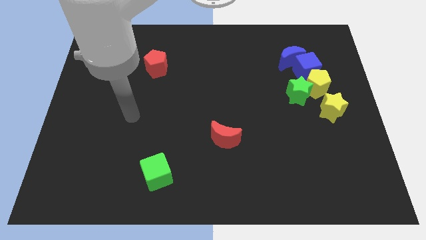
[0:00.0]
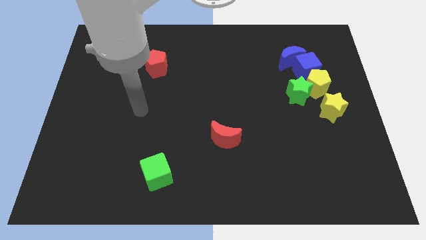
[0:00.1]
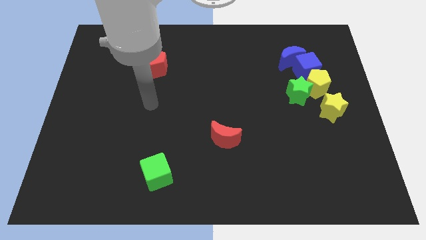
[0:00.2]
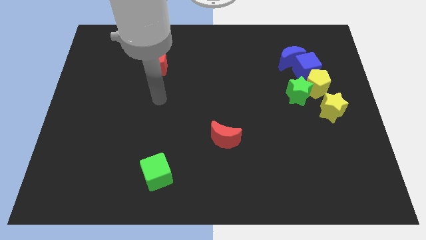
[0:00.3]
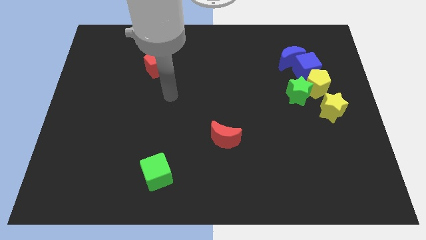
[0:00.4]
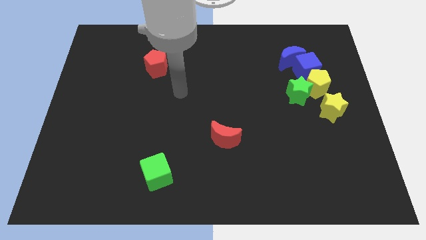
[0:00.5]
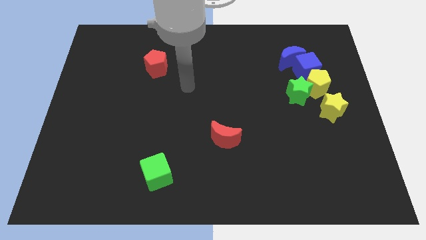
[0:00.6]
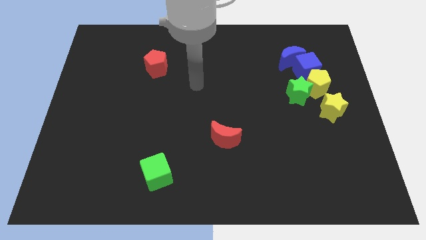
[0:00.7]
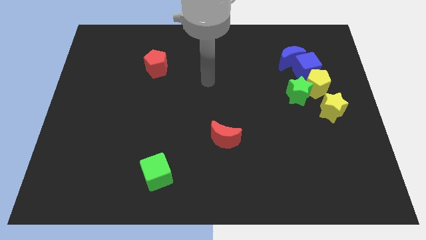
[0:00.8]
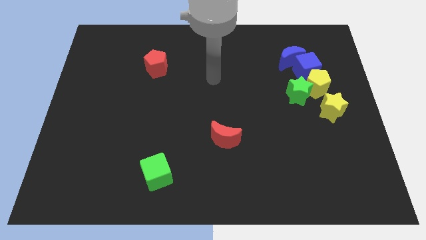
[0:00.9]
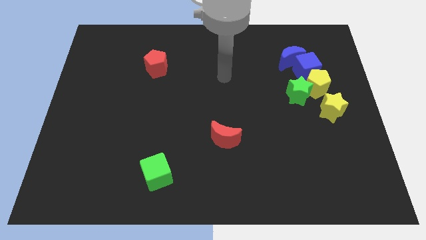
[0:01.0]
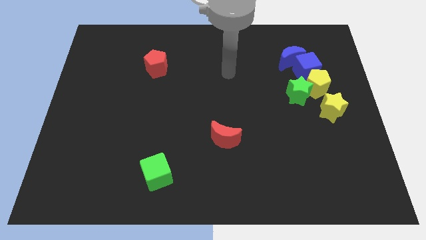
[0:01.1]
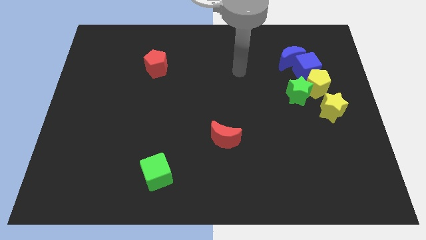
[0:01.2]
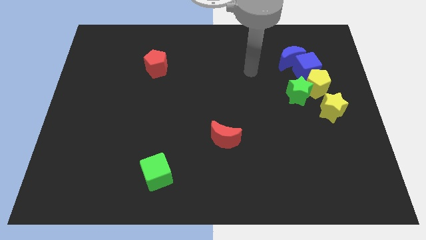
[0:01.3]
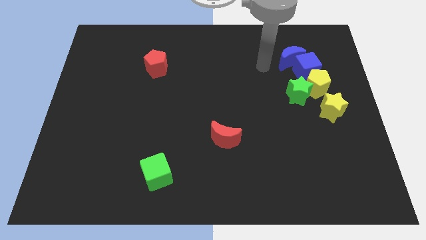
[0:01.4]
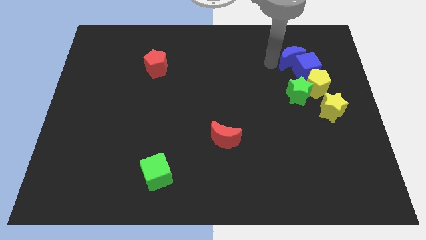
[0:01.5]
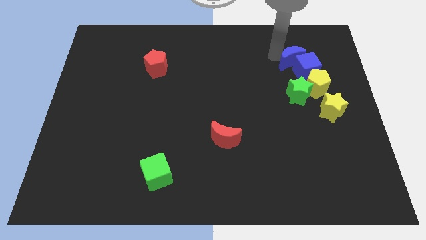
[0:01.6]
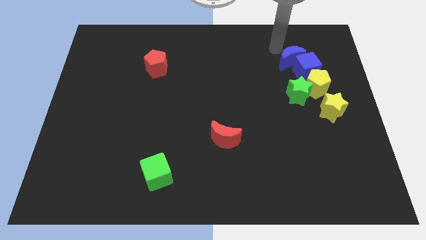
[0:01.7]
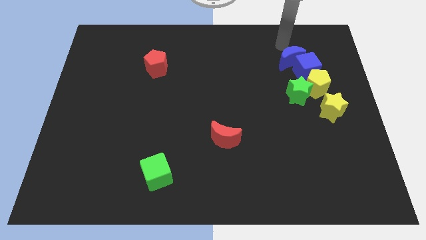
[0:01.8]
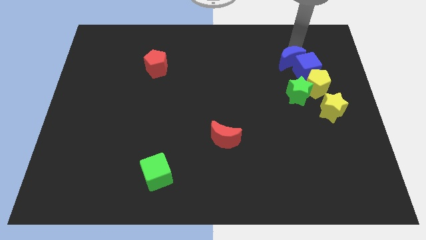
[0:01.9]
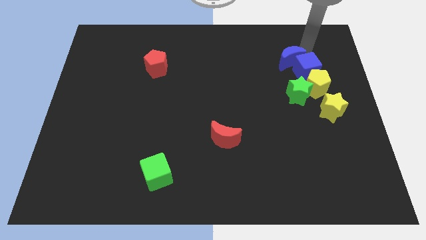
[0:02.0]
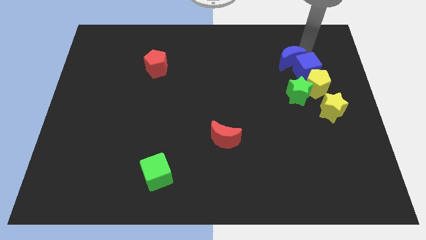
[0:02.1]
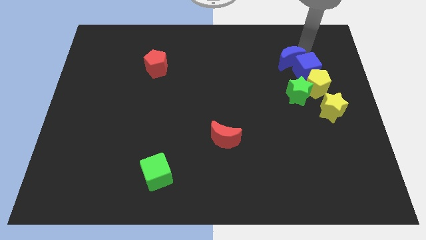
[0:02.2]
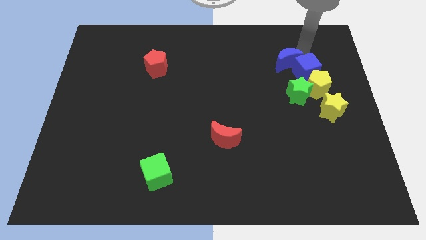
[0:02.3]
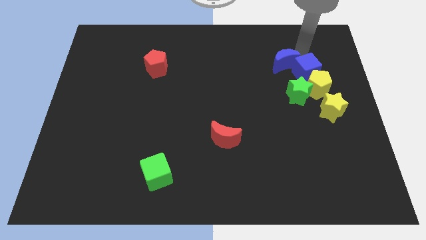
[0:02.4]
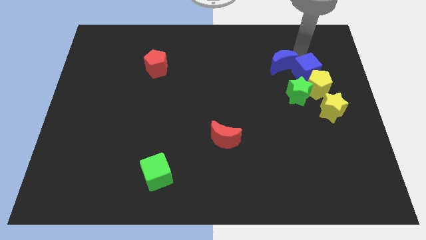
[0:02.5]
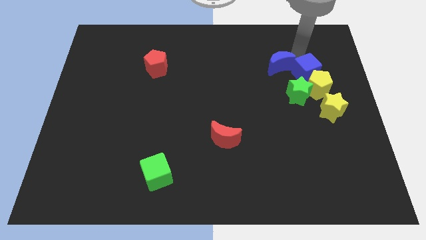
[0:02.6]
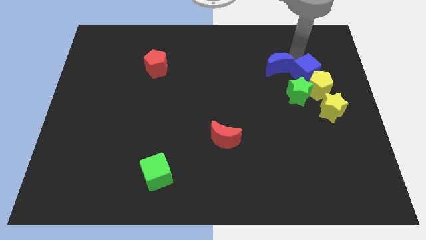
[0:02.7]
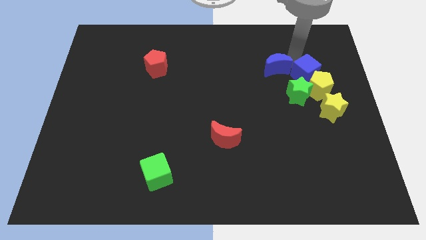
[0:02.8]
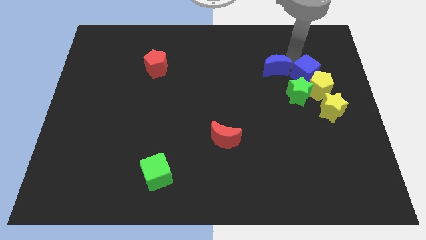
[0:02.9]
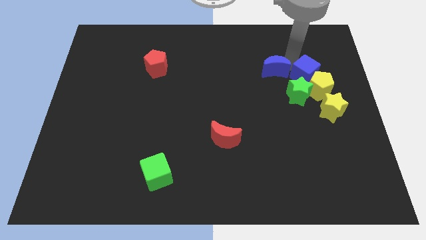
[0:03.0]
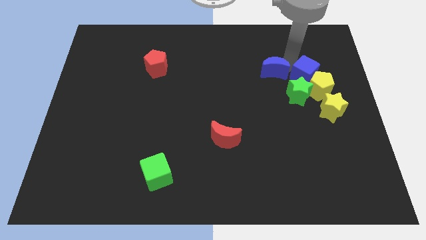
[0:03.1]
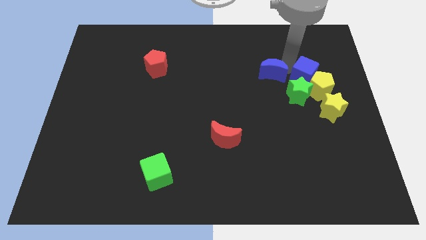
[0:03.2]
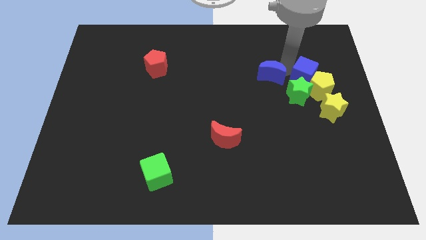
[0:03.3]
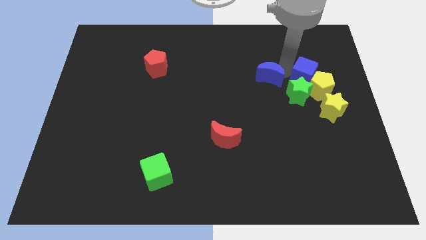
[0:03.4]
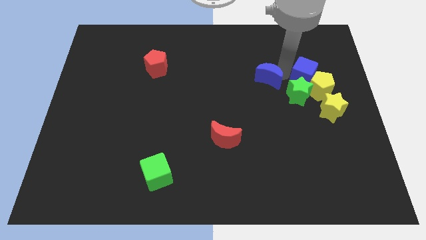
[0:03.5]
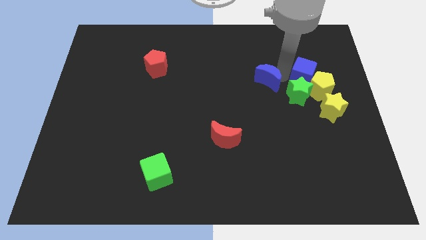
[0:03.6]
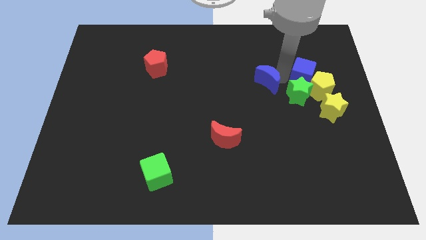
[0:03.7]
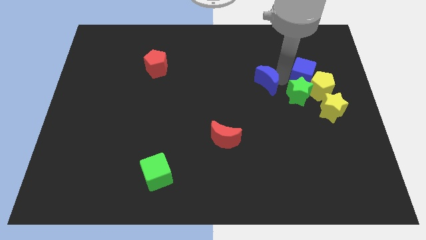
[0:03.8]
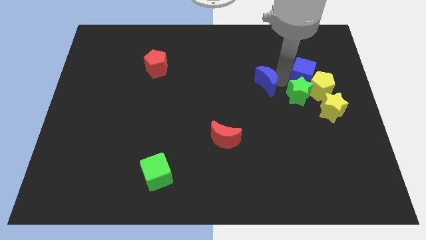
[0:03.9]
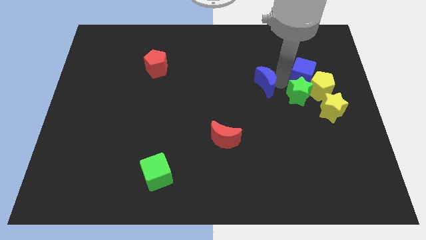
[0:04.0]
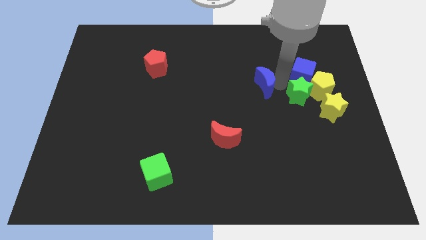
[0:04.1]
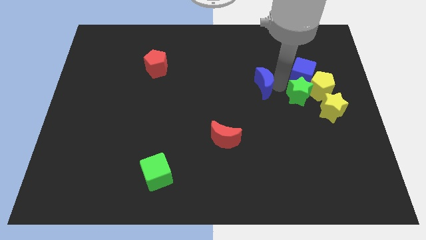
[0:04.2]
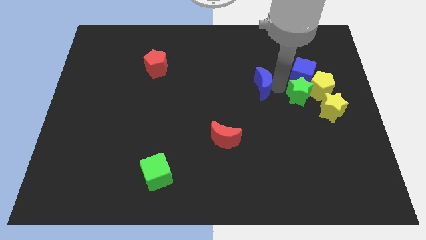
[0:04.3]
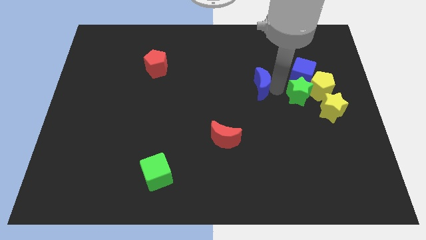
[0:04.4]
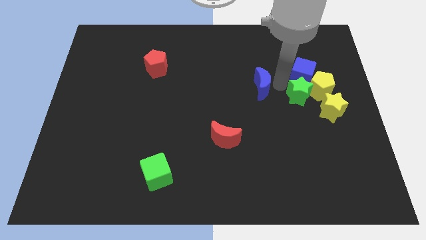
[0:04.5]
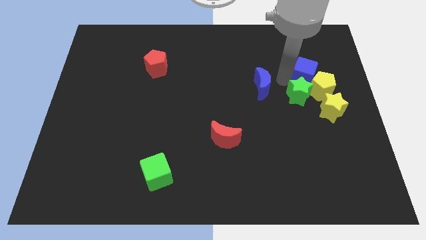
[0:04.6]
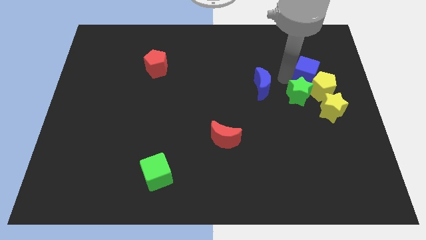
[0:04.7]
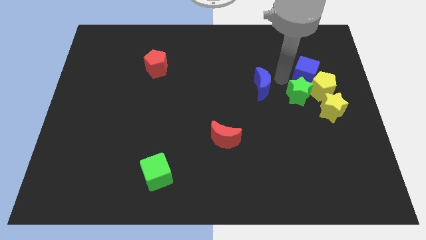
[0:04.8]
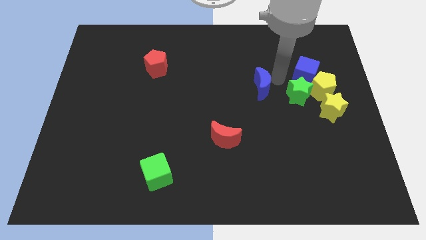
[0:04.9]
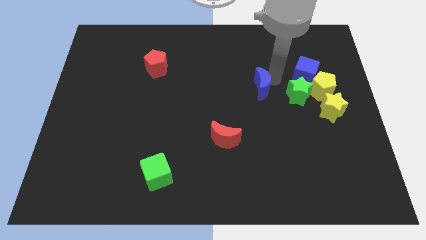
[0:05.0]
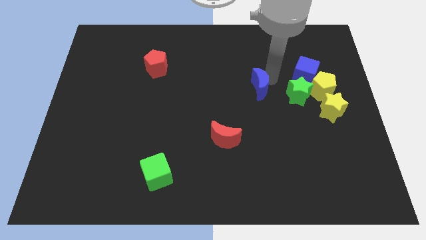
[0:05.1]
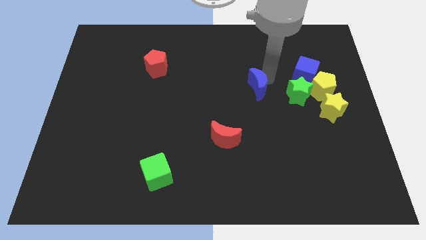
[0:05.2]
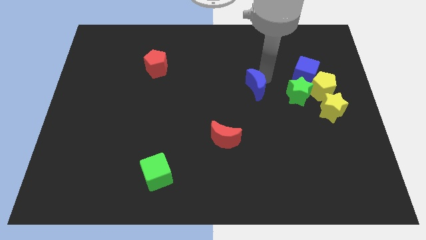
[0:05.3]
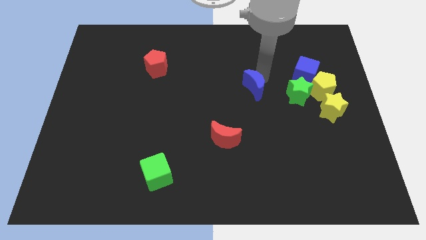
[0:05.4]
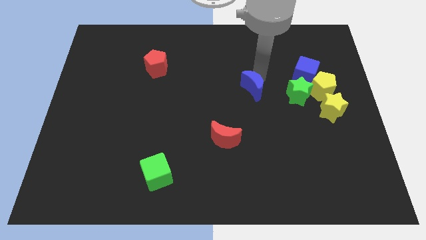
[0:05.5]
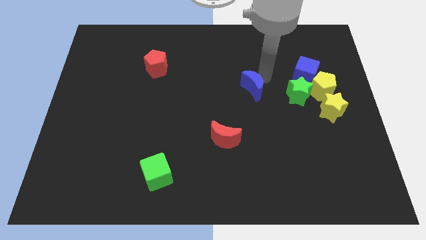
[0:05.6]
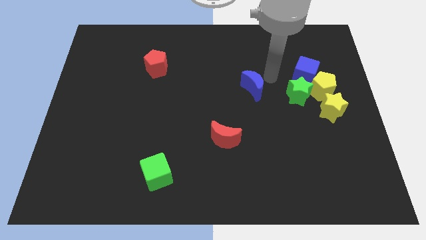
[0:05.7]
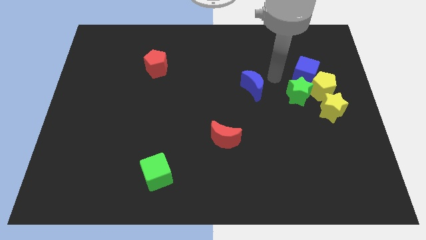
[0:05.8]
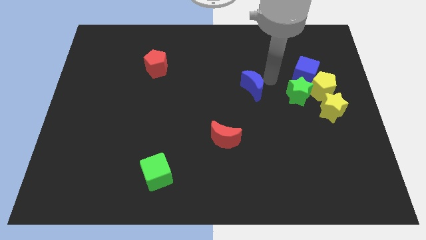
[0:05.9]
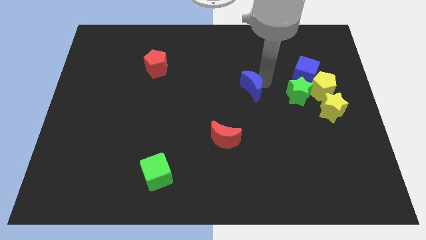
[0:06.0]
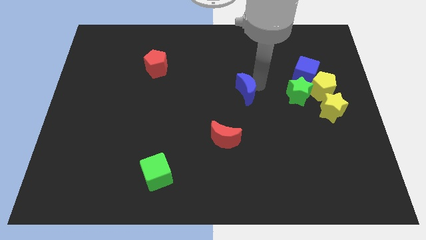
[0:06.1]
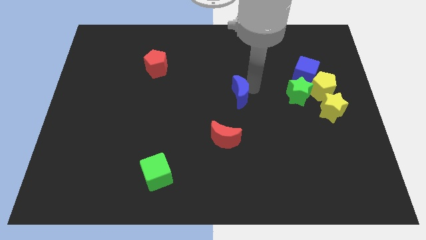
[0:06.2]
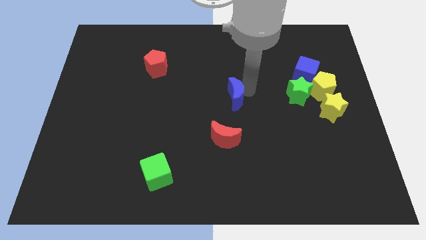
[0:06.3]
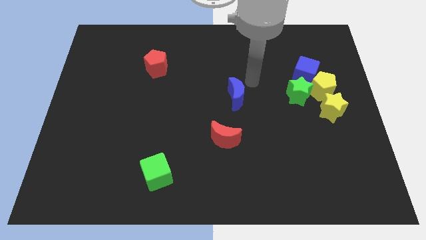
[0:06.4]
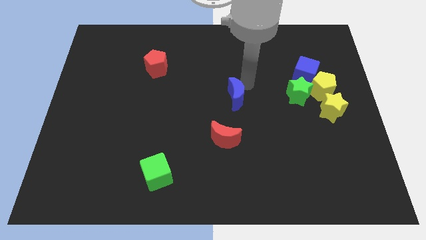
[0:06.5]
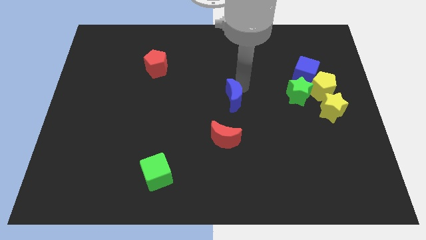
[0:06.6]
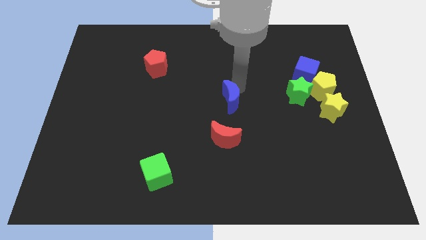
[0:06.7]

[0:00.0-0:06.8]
slide the blue moon downwards and then to the left

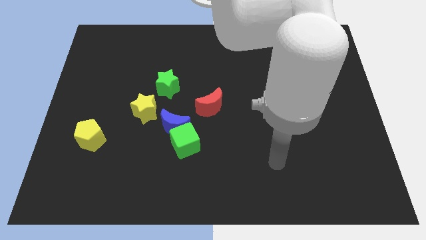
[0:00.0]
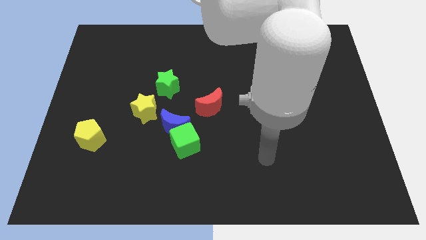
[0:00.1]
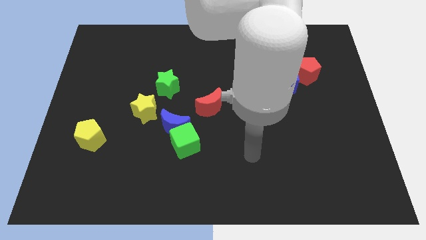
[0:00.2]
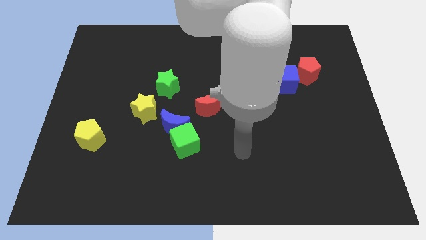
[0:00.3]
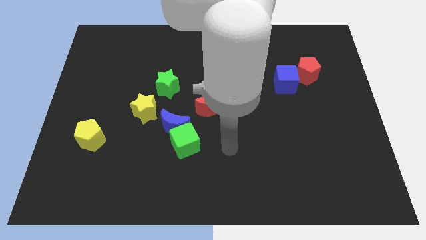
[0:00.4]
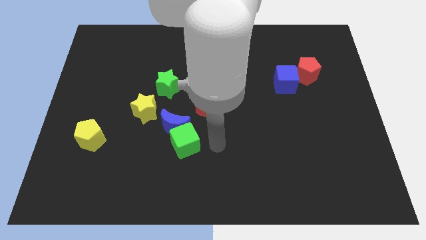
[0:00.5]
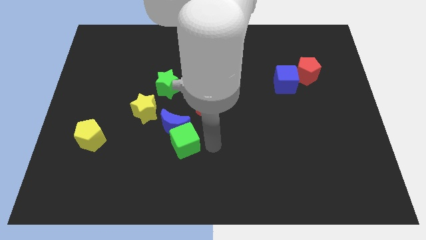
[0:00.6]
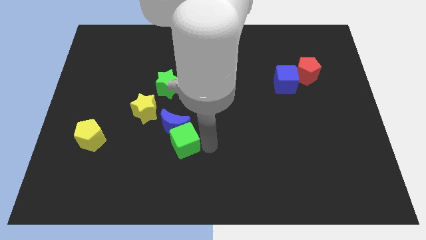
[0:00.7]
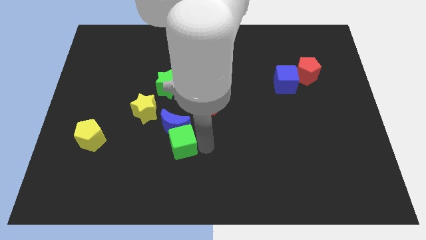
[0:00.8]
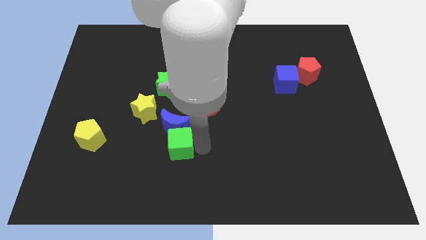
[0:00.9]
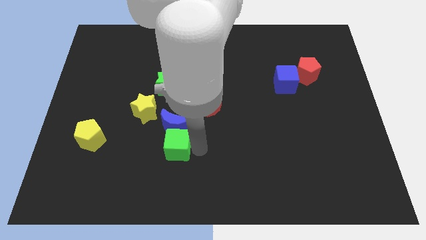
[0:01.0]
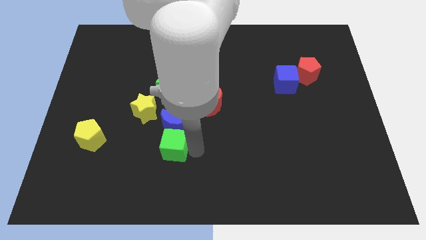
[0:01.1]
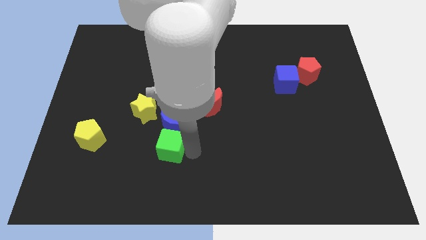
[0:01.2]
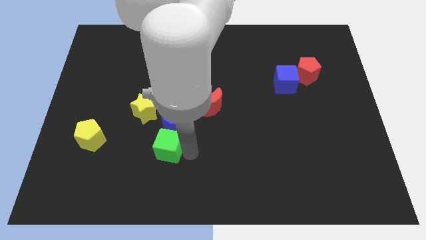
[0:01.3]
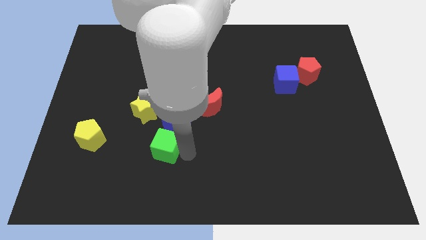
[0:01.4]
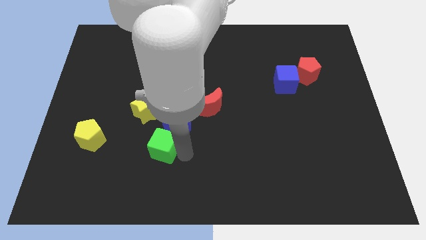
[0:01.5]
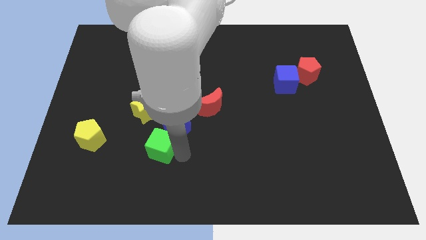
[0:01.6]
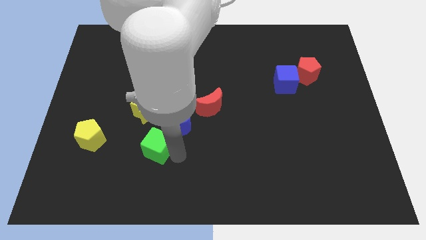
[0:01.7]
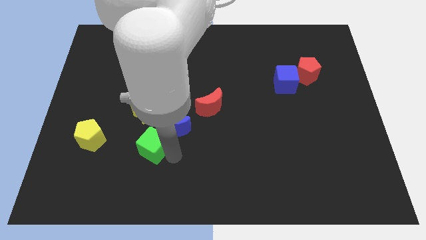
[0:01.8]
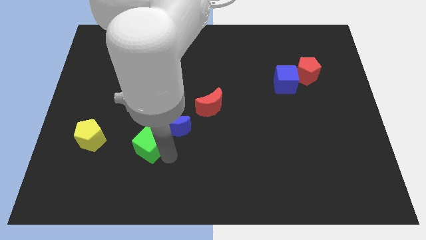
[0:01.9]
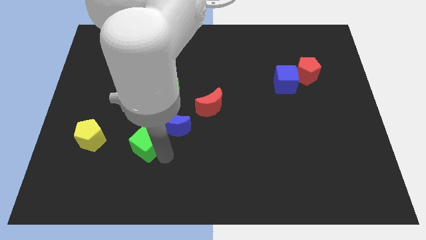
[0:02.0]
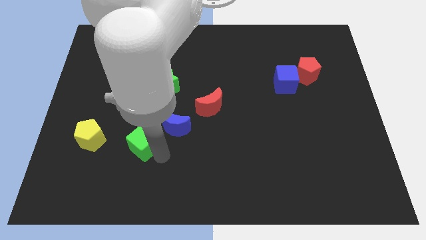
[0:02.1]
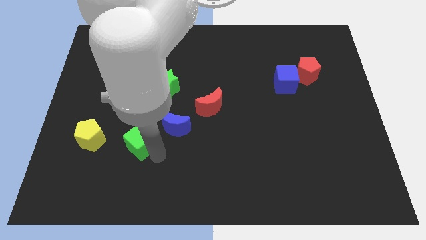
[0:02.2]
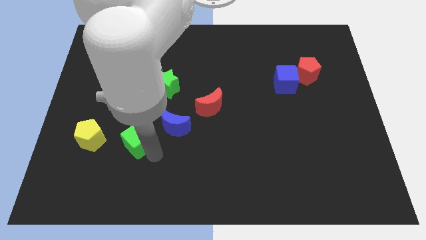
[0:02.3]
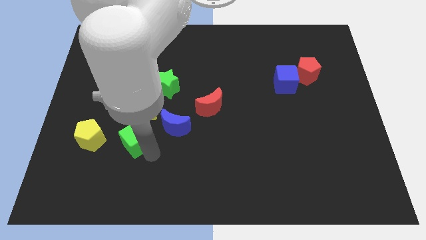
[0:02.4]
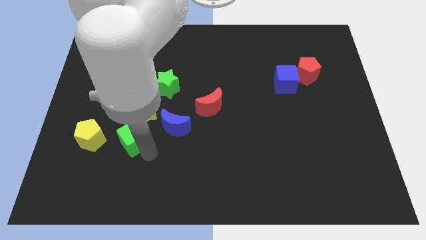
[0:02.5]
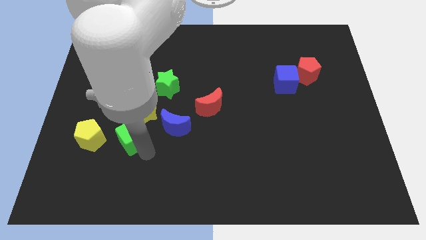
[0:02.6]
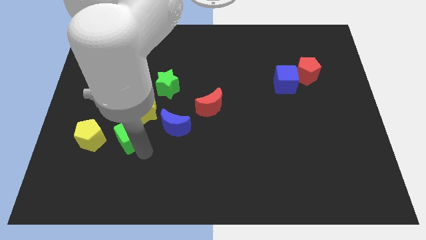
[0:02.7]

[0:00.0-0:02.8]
slide the green cube a little bit diagonally upwards and left
